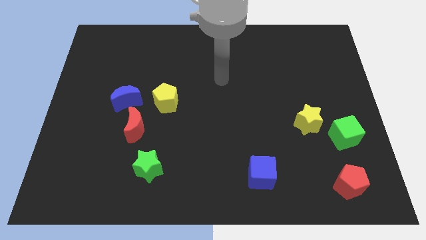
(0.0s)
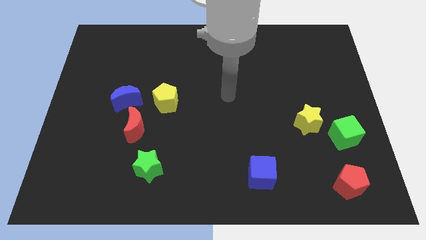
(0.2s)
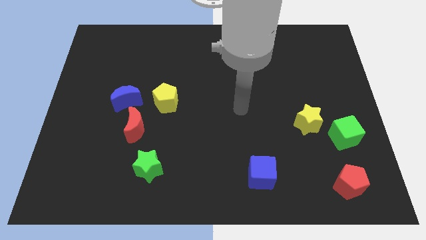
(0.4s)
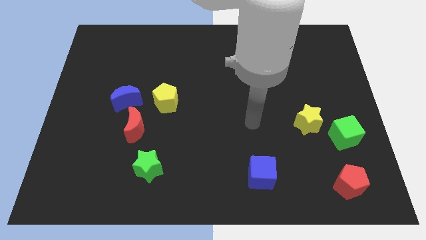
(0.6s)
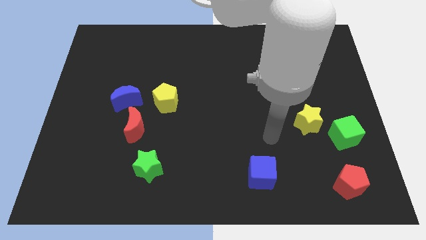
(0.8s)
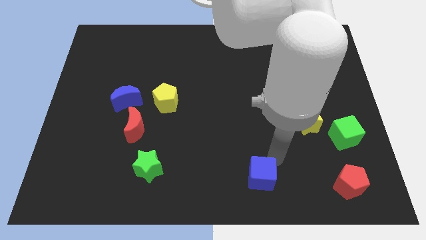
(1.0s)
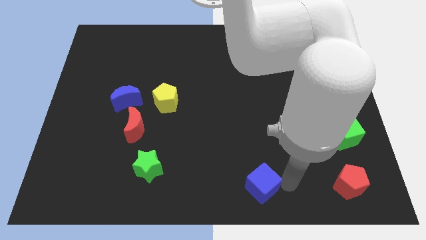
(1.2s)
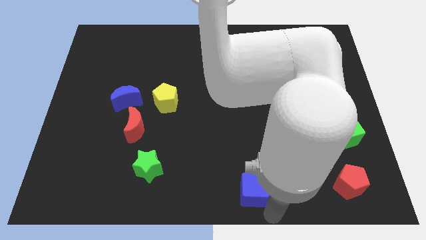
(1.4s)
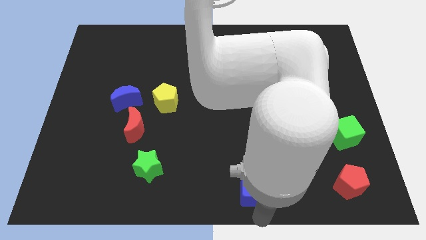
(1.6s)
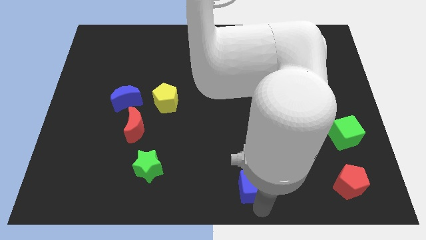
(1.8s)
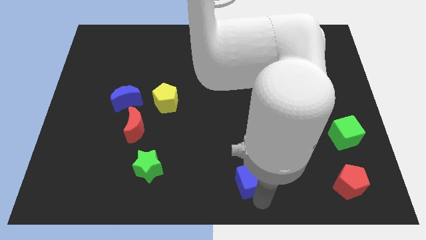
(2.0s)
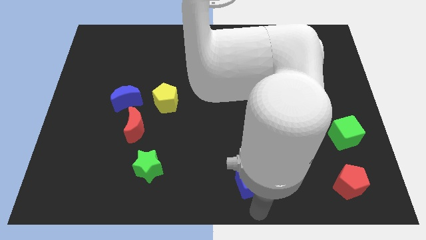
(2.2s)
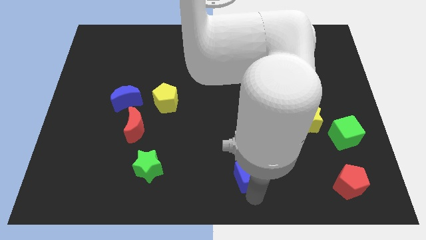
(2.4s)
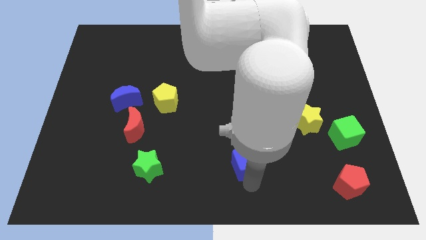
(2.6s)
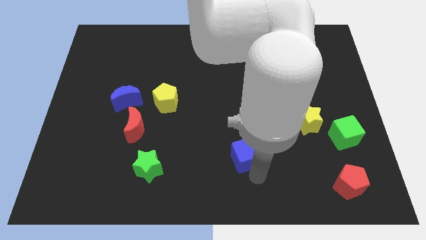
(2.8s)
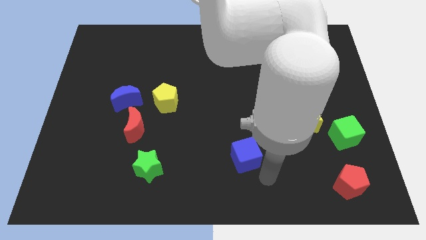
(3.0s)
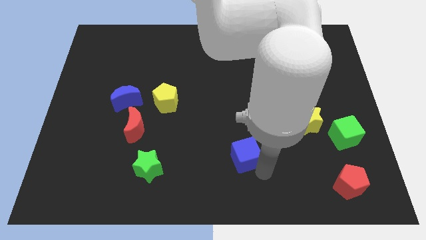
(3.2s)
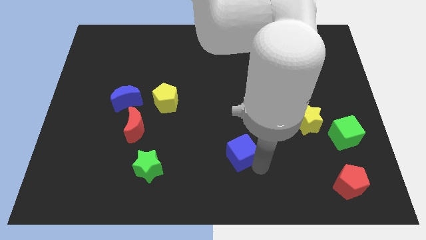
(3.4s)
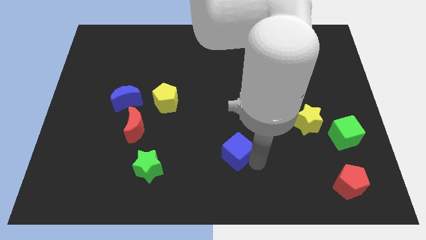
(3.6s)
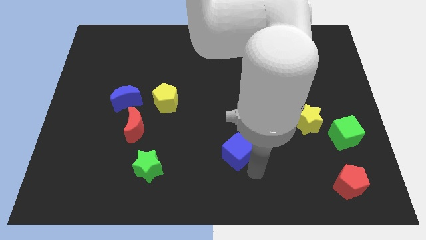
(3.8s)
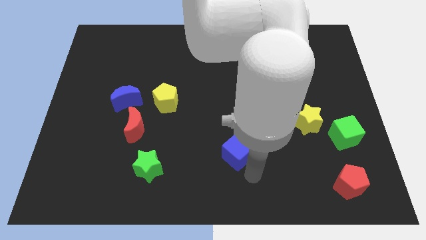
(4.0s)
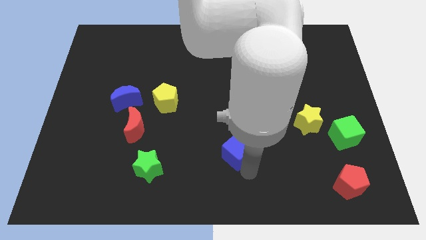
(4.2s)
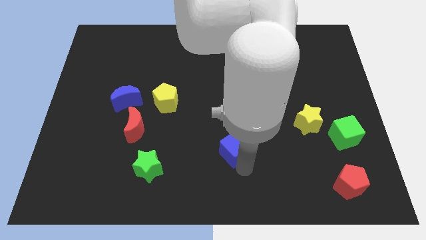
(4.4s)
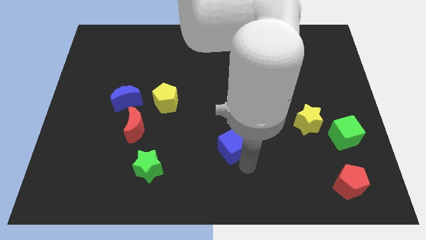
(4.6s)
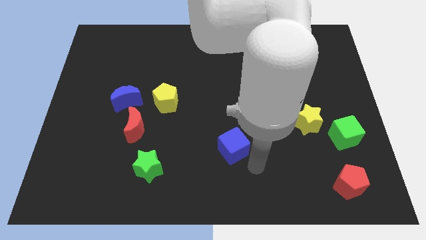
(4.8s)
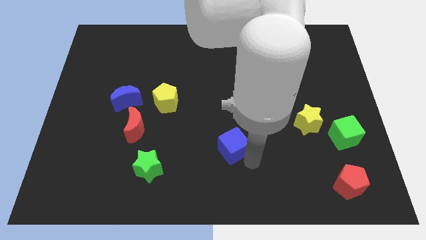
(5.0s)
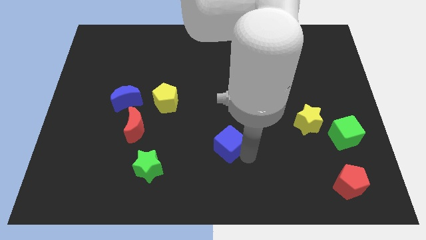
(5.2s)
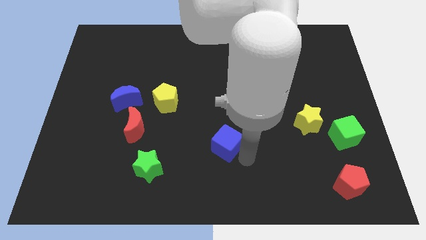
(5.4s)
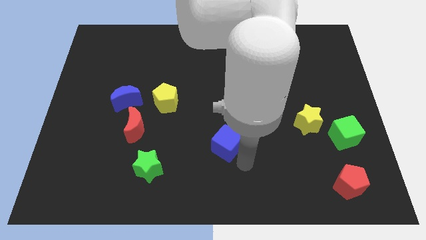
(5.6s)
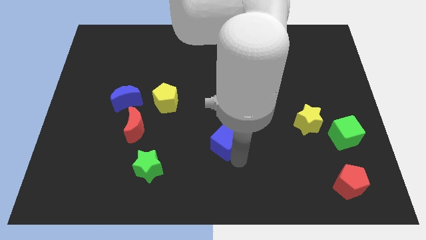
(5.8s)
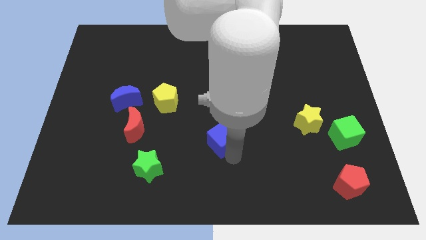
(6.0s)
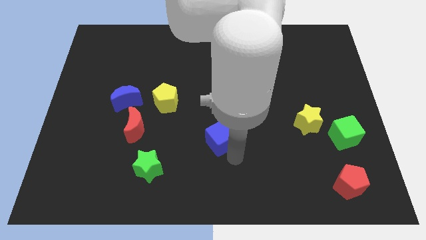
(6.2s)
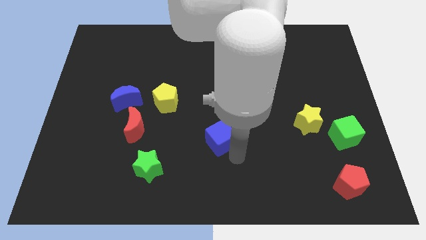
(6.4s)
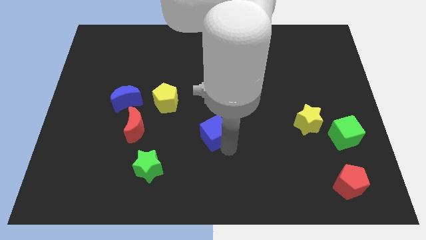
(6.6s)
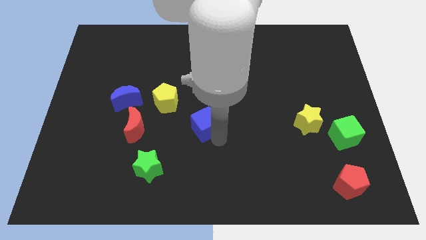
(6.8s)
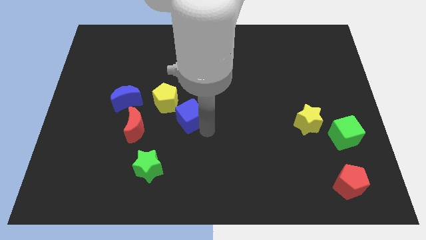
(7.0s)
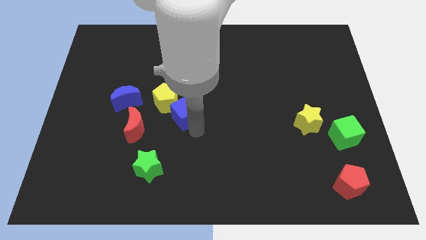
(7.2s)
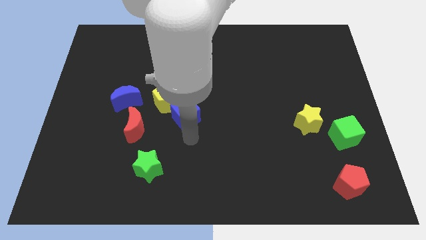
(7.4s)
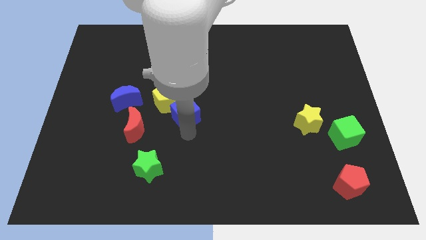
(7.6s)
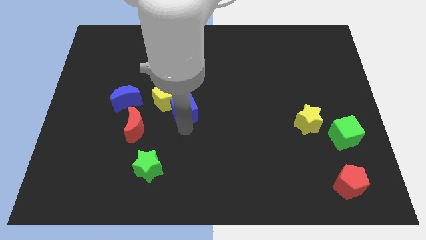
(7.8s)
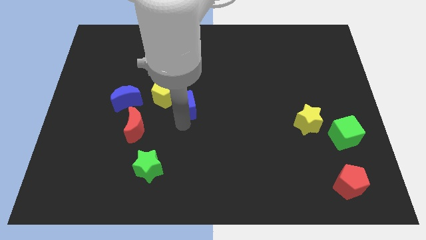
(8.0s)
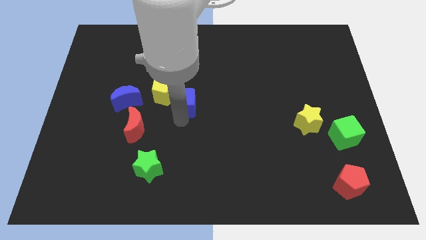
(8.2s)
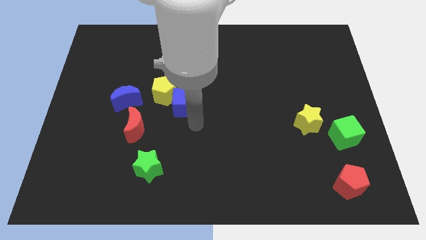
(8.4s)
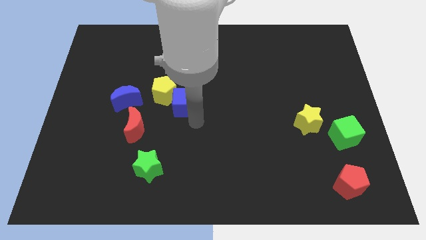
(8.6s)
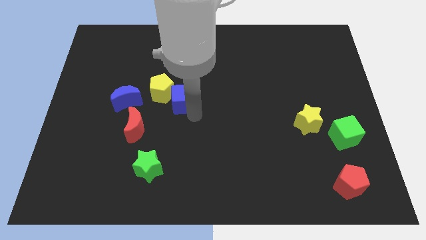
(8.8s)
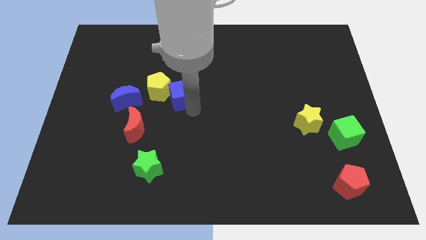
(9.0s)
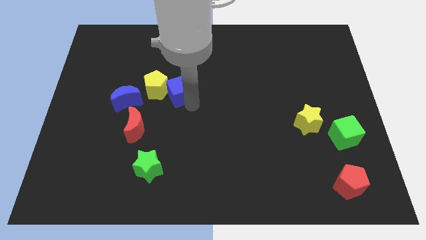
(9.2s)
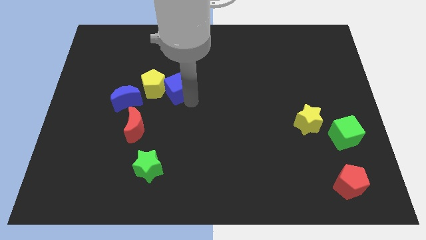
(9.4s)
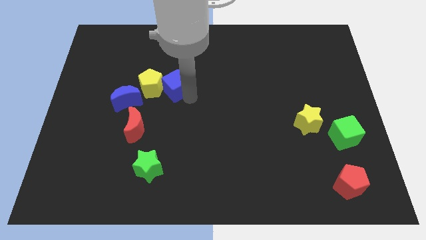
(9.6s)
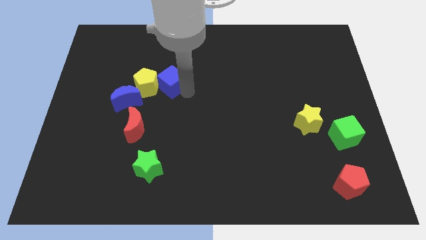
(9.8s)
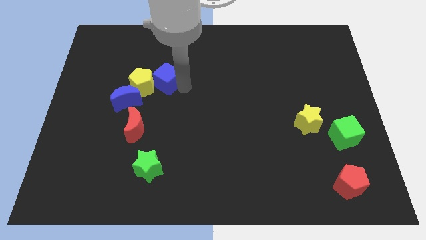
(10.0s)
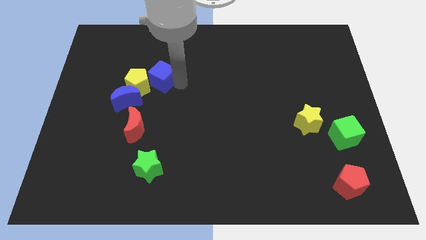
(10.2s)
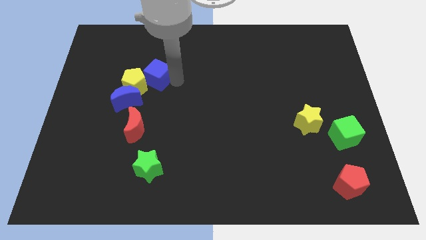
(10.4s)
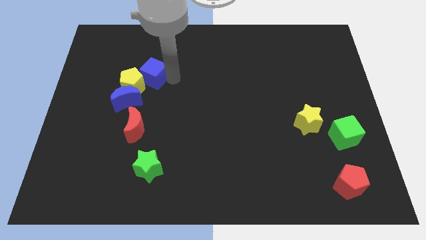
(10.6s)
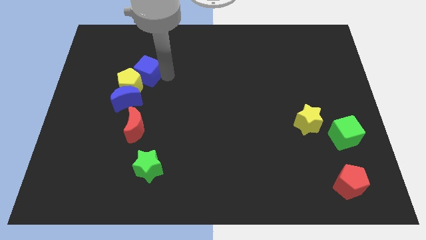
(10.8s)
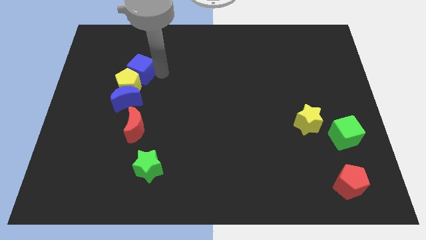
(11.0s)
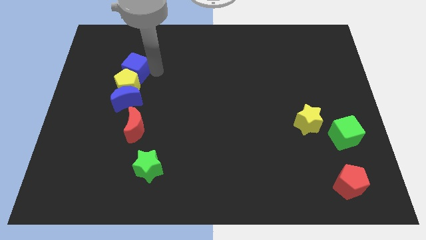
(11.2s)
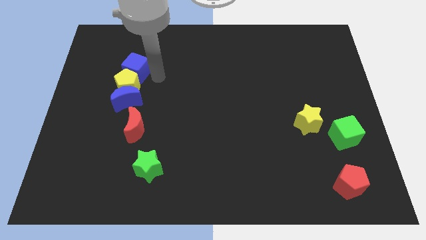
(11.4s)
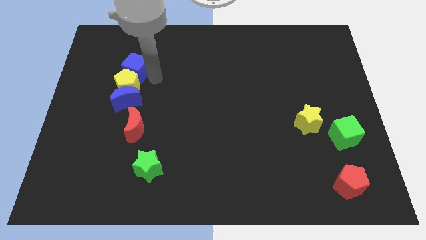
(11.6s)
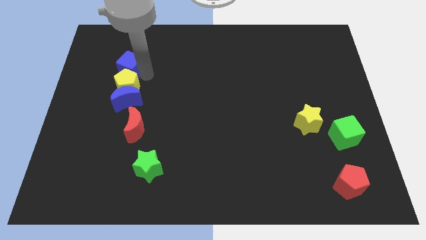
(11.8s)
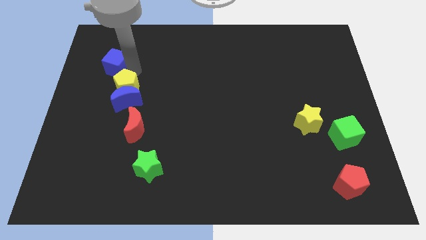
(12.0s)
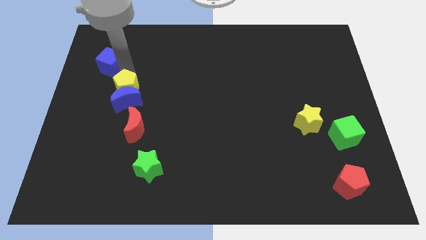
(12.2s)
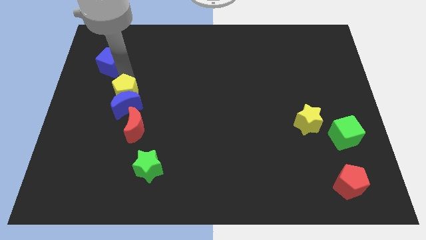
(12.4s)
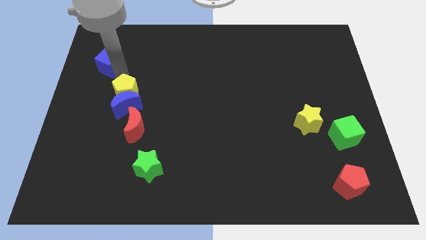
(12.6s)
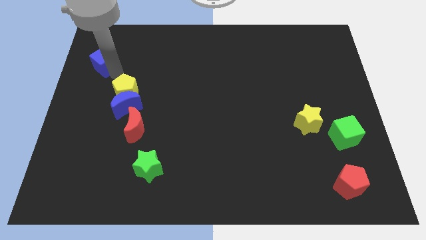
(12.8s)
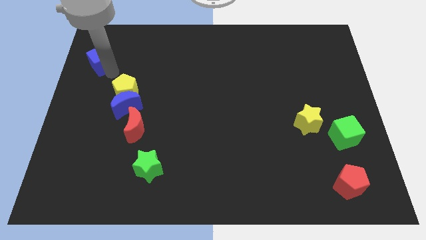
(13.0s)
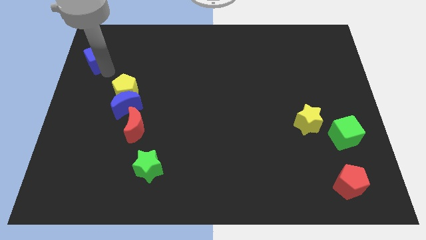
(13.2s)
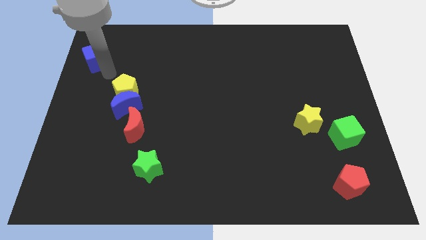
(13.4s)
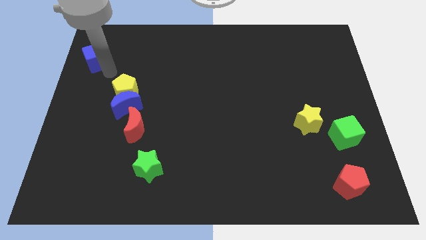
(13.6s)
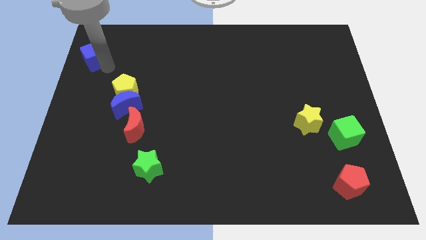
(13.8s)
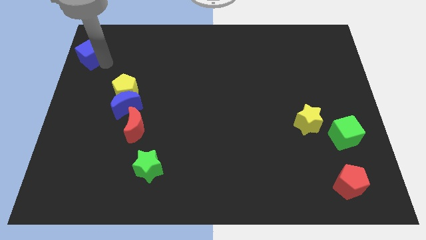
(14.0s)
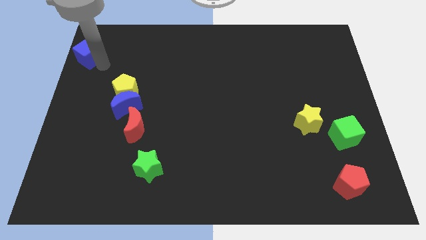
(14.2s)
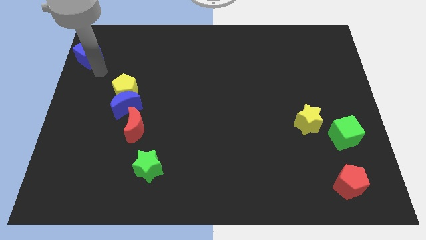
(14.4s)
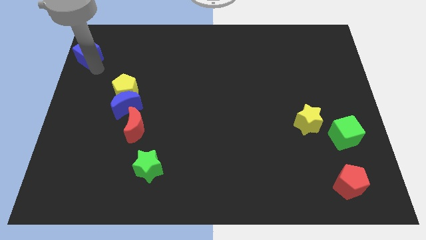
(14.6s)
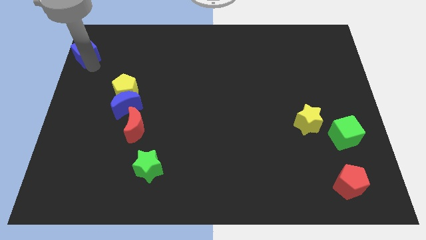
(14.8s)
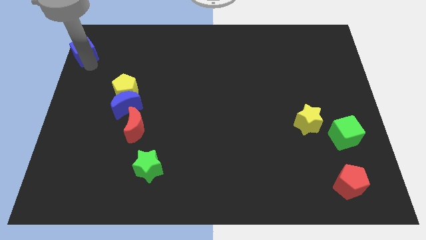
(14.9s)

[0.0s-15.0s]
slide the blue cube to the top left of the board
